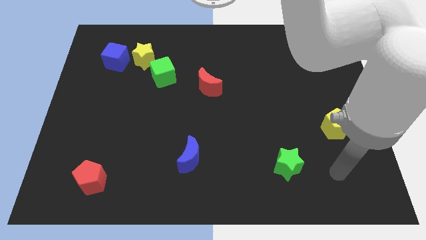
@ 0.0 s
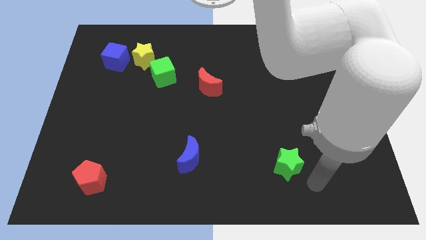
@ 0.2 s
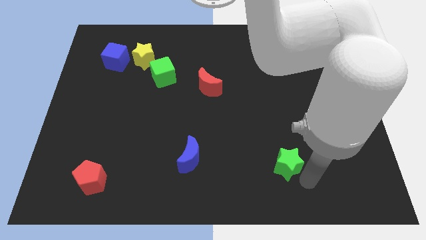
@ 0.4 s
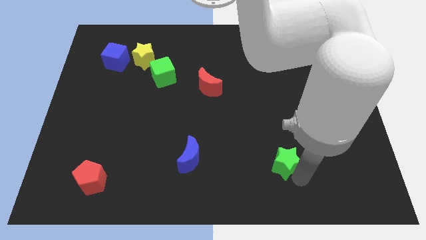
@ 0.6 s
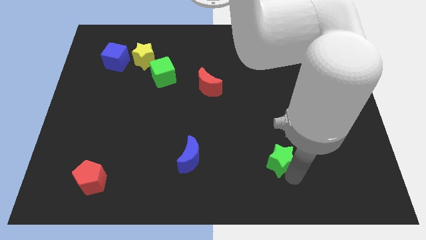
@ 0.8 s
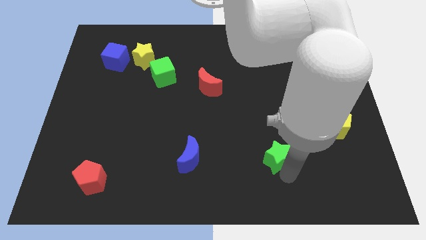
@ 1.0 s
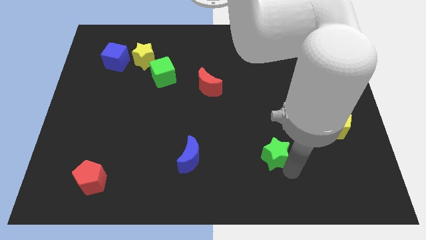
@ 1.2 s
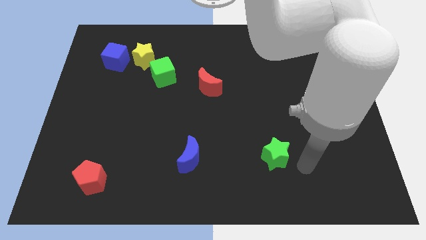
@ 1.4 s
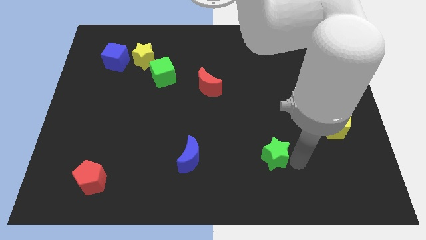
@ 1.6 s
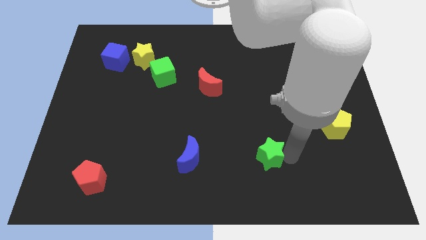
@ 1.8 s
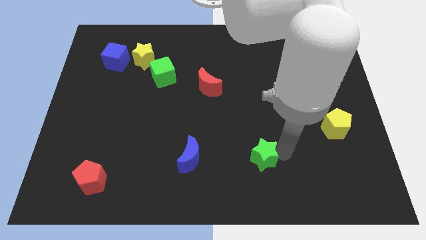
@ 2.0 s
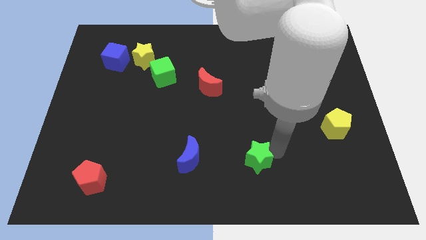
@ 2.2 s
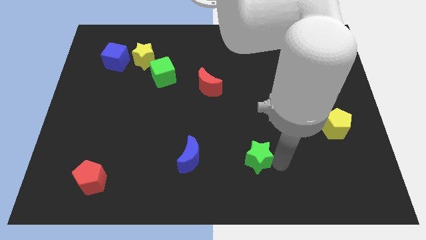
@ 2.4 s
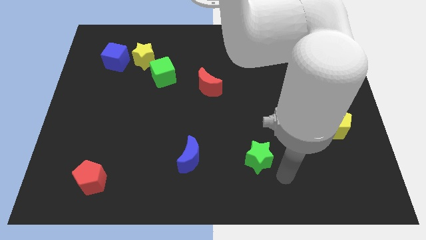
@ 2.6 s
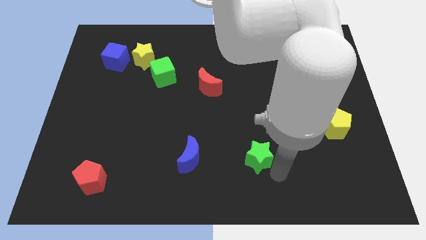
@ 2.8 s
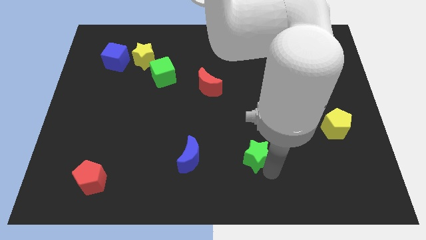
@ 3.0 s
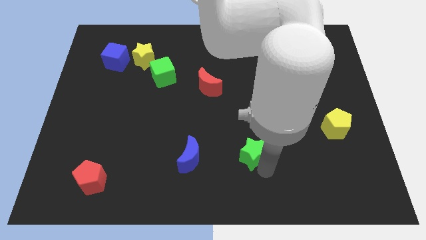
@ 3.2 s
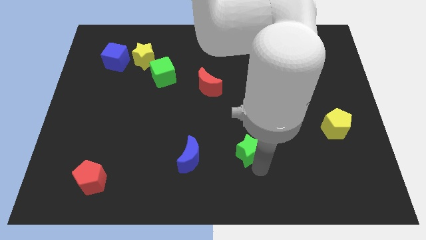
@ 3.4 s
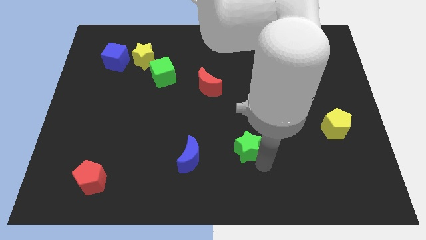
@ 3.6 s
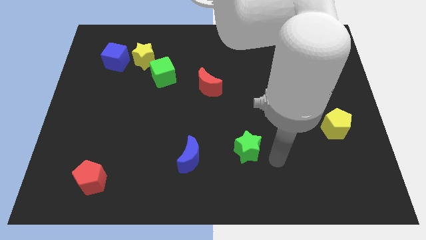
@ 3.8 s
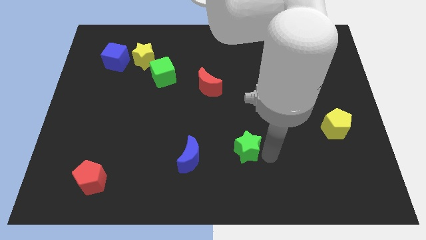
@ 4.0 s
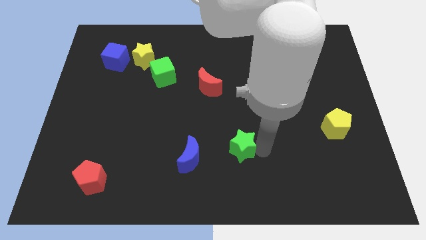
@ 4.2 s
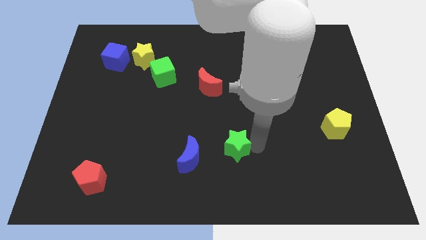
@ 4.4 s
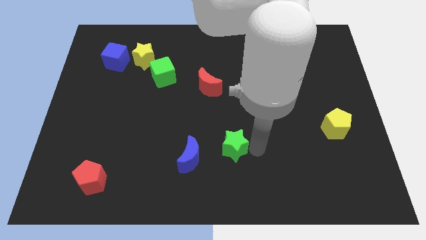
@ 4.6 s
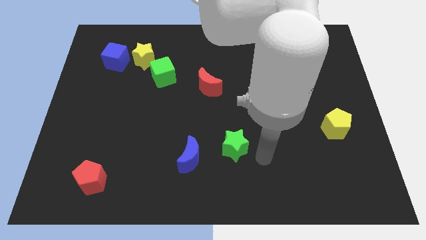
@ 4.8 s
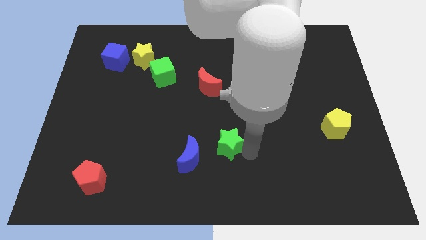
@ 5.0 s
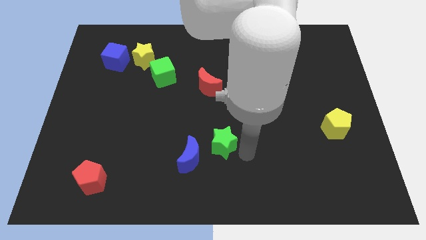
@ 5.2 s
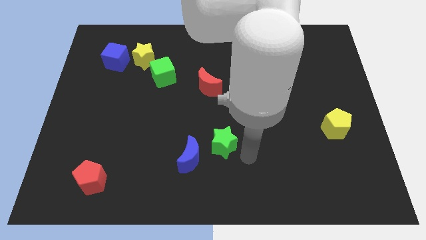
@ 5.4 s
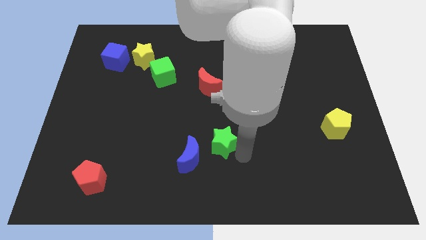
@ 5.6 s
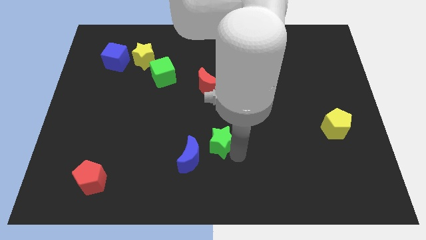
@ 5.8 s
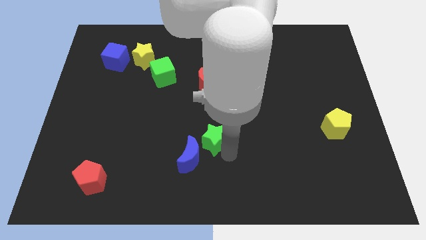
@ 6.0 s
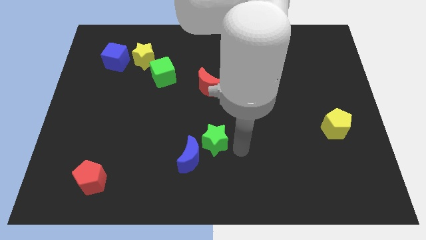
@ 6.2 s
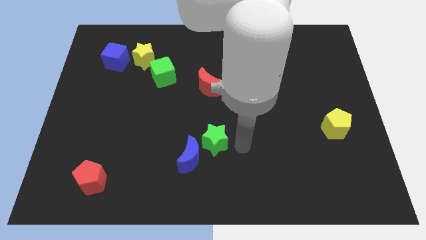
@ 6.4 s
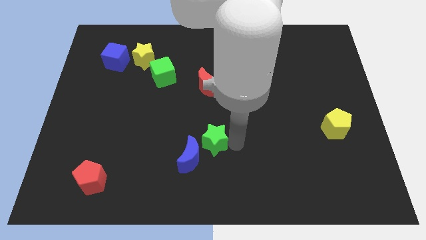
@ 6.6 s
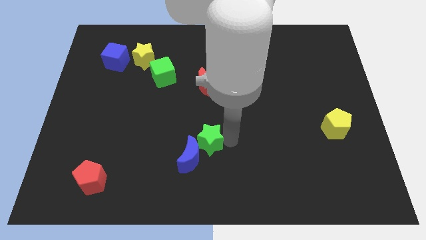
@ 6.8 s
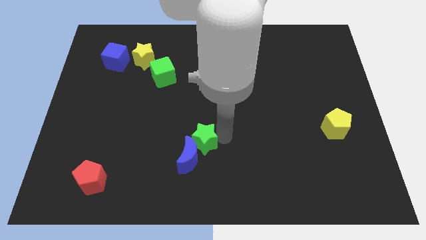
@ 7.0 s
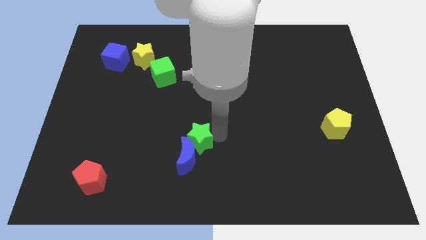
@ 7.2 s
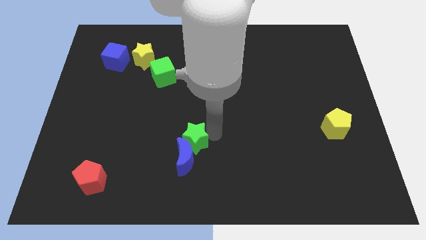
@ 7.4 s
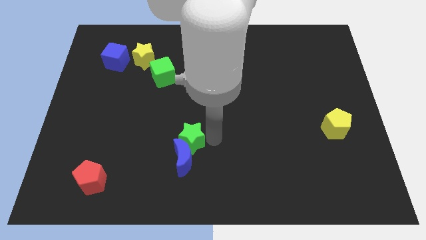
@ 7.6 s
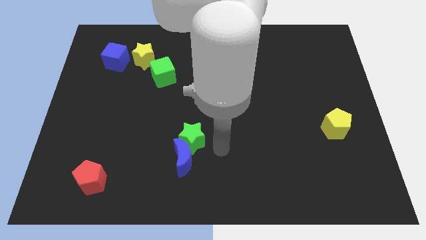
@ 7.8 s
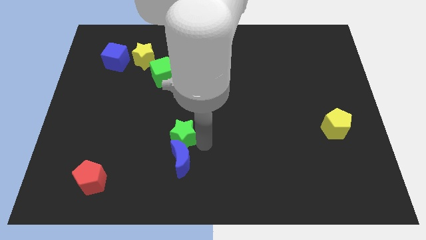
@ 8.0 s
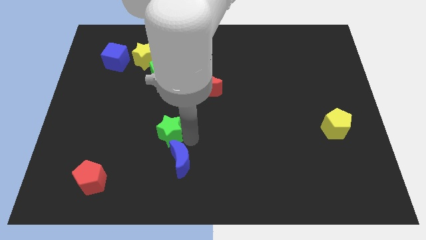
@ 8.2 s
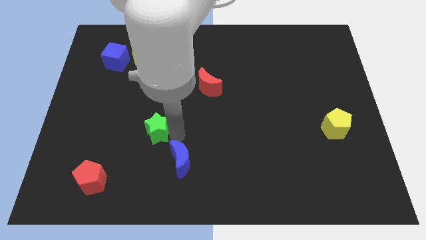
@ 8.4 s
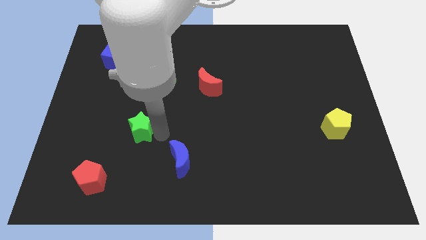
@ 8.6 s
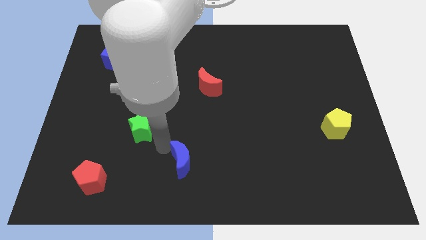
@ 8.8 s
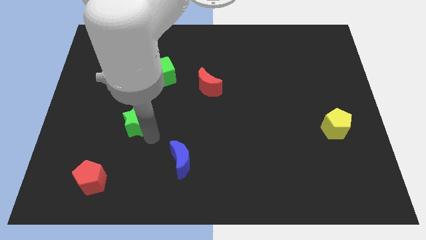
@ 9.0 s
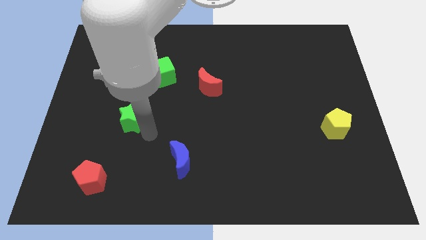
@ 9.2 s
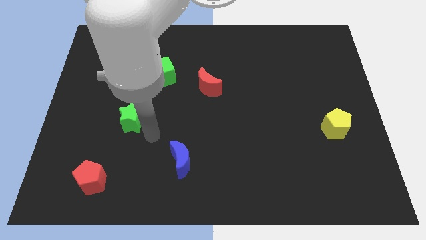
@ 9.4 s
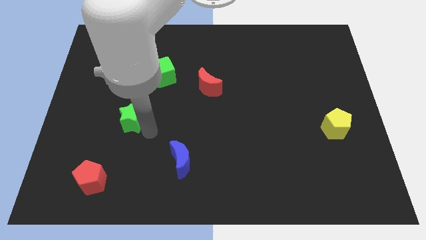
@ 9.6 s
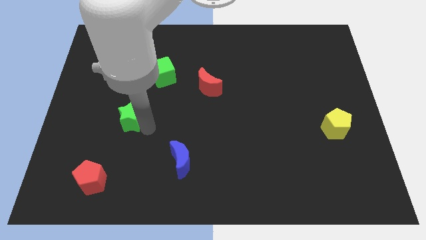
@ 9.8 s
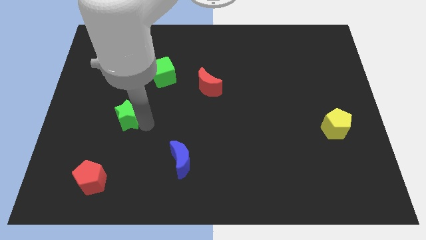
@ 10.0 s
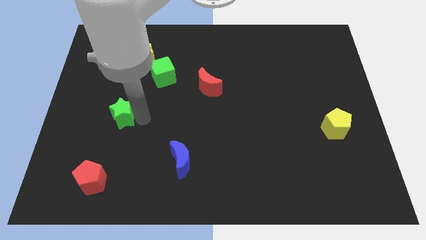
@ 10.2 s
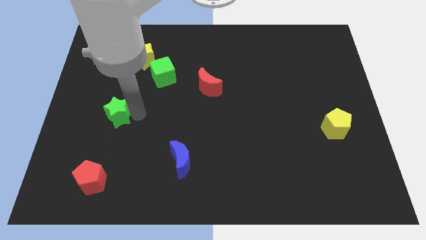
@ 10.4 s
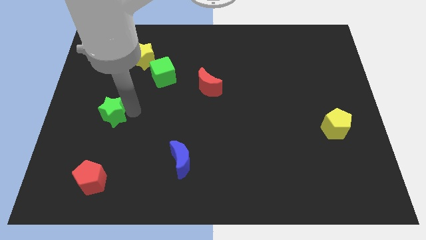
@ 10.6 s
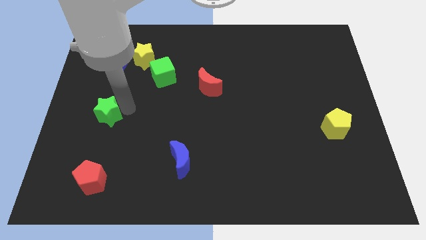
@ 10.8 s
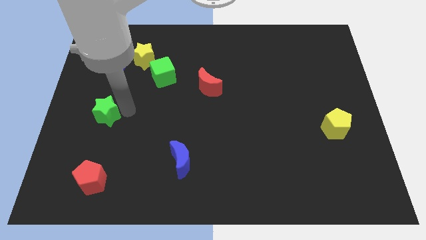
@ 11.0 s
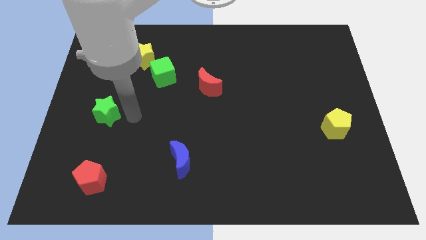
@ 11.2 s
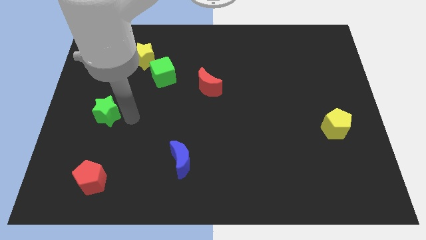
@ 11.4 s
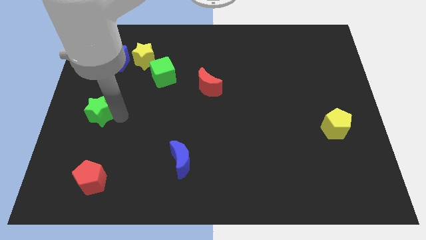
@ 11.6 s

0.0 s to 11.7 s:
push the green star to the left side of the board

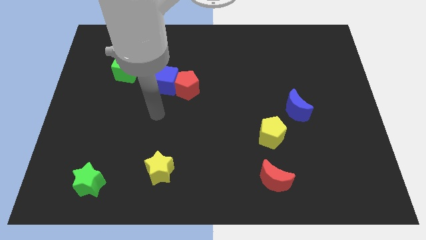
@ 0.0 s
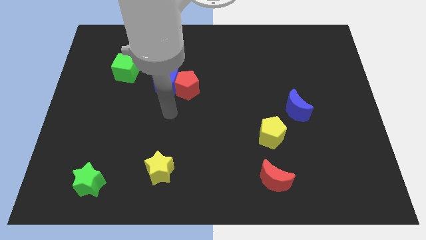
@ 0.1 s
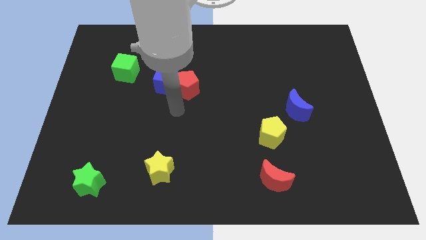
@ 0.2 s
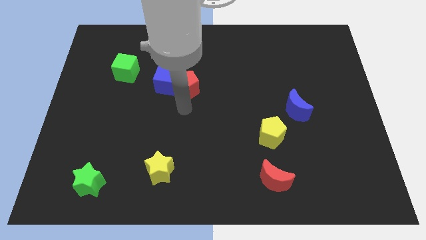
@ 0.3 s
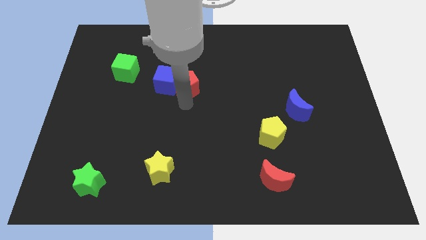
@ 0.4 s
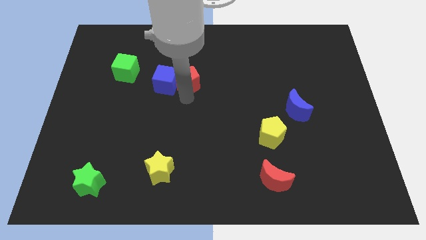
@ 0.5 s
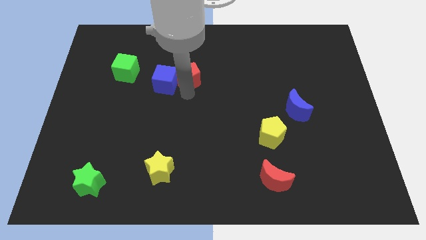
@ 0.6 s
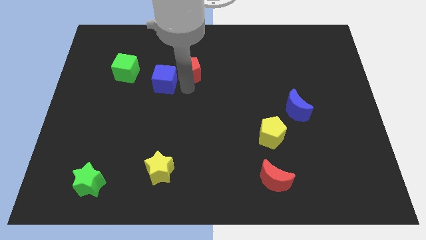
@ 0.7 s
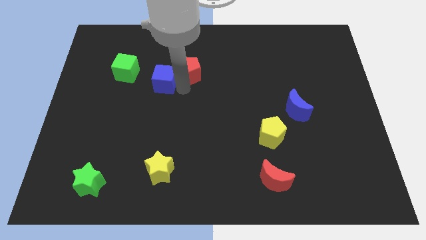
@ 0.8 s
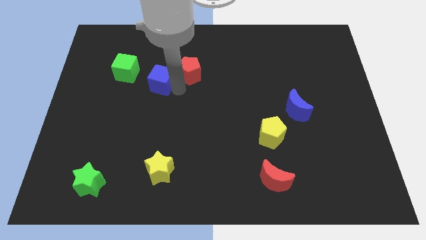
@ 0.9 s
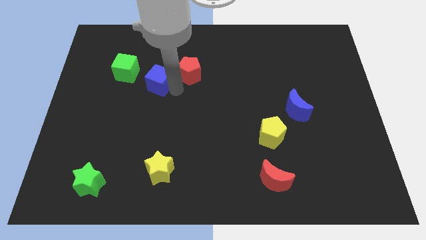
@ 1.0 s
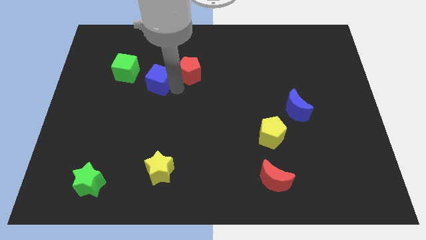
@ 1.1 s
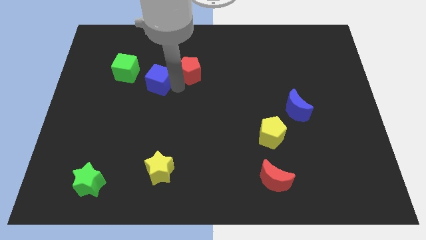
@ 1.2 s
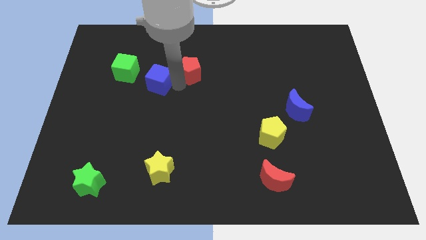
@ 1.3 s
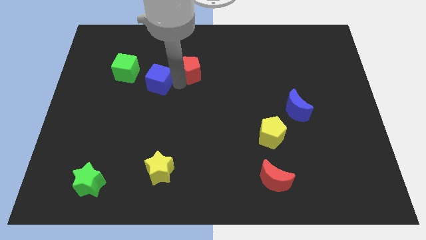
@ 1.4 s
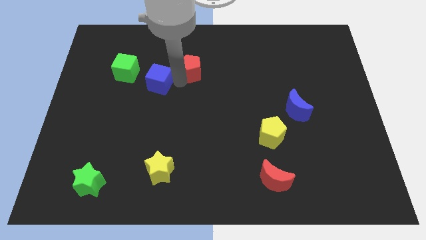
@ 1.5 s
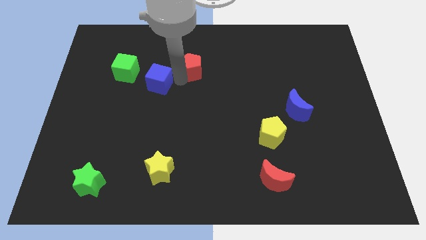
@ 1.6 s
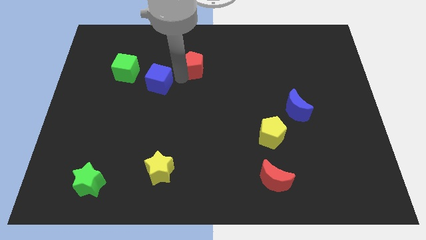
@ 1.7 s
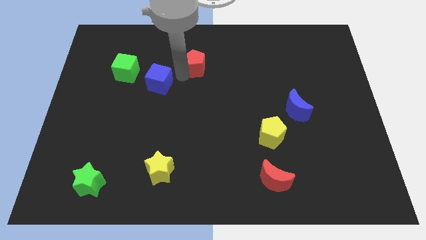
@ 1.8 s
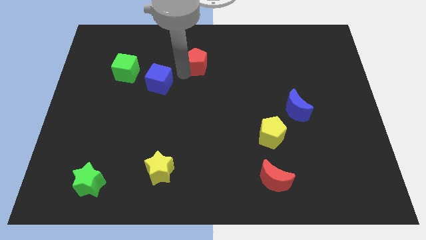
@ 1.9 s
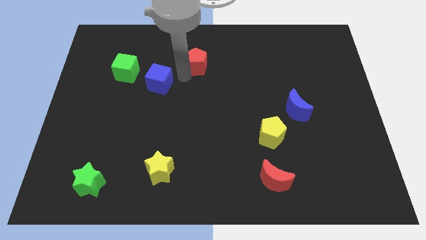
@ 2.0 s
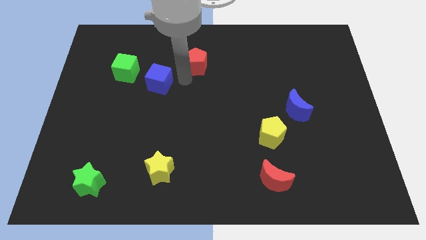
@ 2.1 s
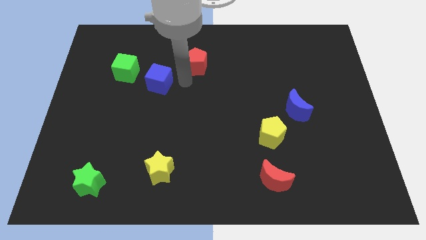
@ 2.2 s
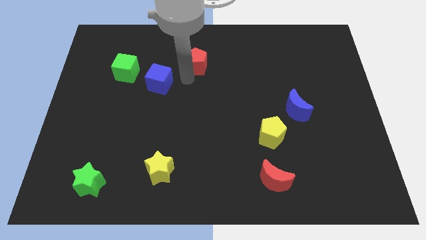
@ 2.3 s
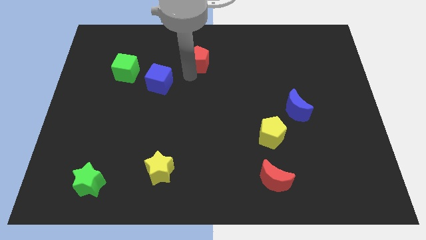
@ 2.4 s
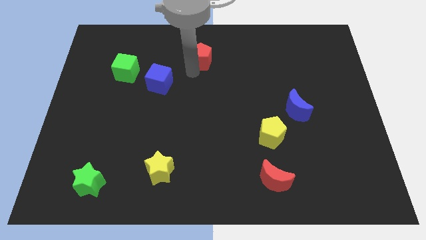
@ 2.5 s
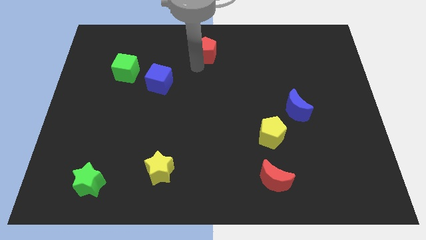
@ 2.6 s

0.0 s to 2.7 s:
put the red pentagon to the top
